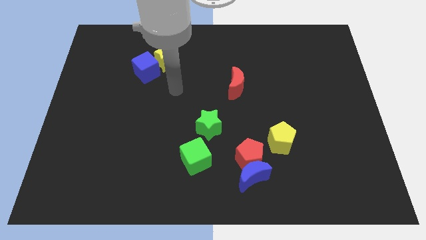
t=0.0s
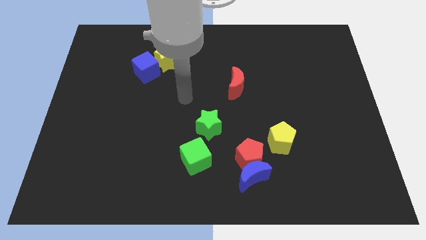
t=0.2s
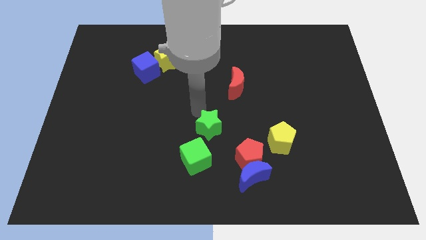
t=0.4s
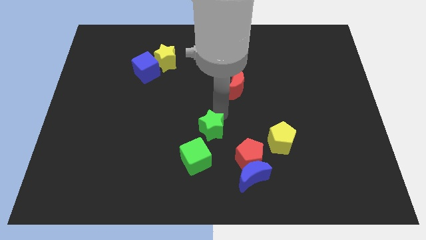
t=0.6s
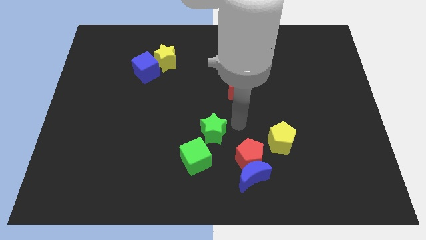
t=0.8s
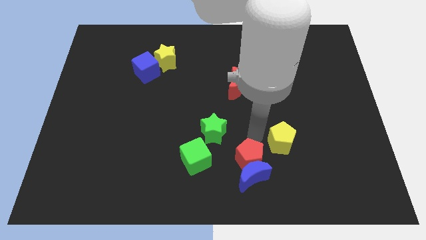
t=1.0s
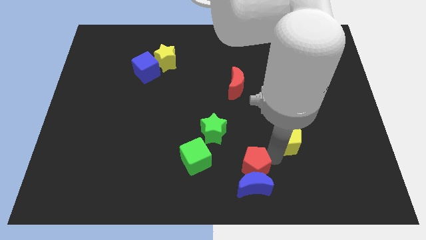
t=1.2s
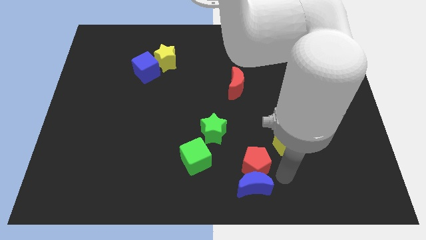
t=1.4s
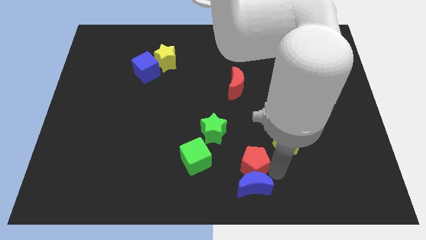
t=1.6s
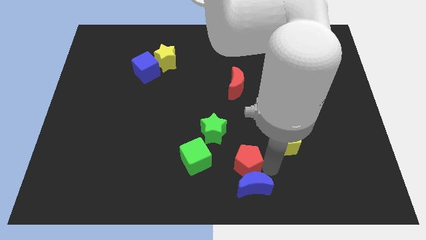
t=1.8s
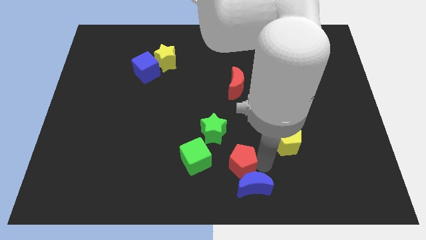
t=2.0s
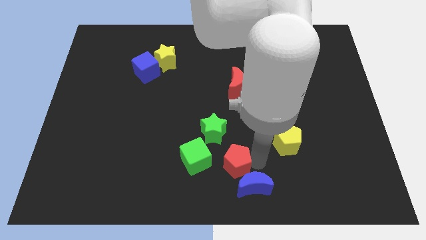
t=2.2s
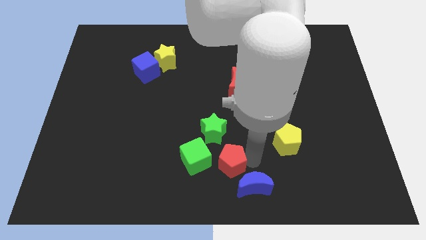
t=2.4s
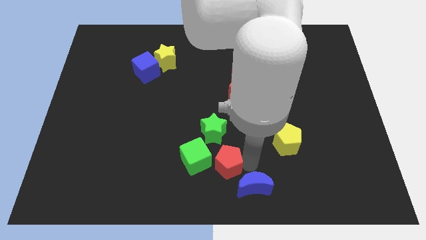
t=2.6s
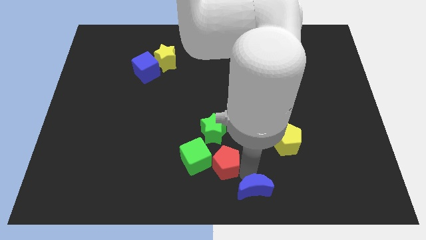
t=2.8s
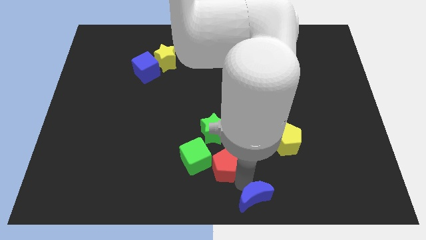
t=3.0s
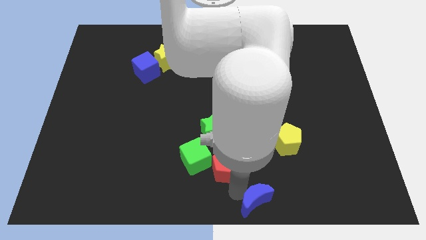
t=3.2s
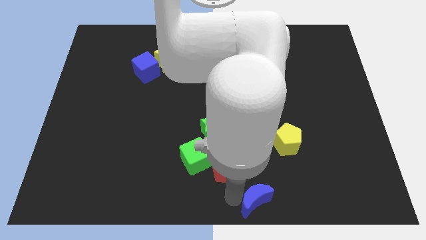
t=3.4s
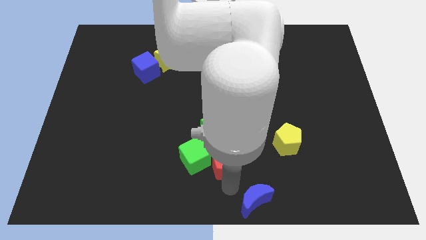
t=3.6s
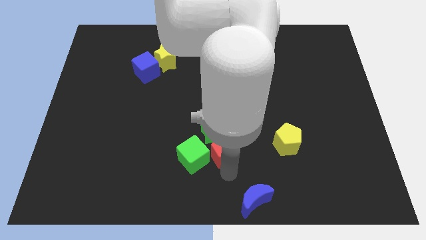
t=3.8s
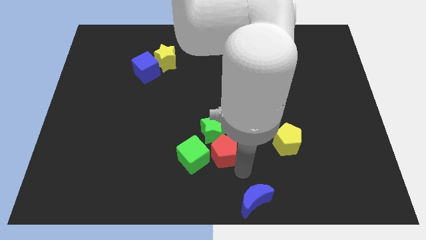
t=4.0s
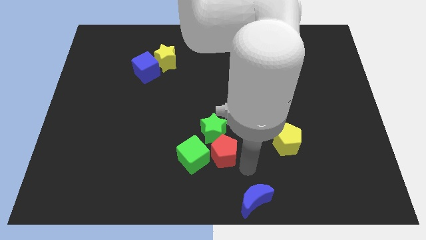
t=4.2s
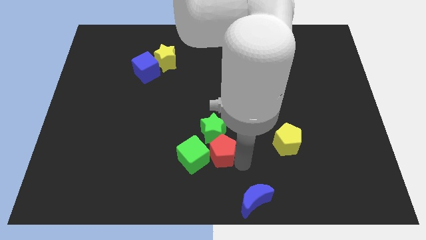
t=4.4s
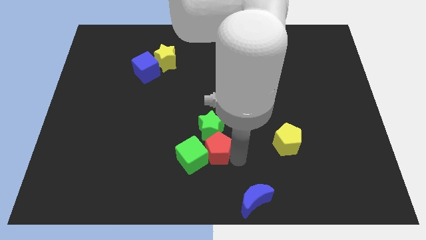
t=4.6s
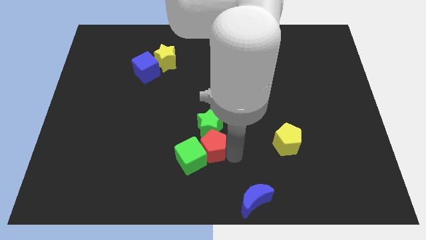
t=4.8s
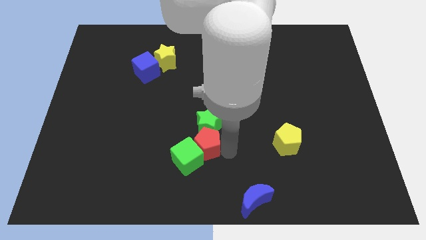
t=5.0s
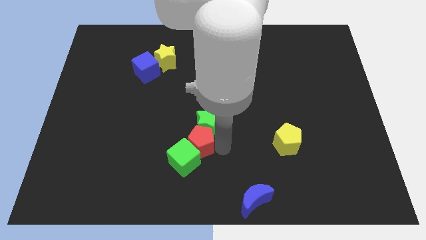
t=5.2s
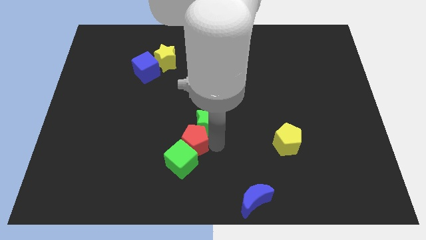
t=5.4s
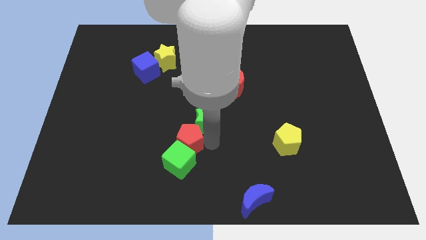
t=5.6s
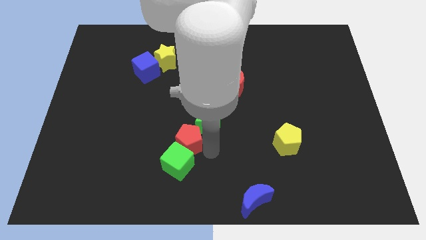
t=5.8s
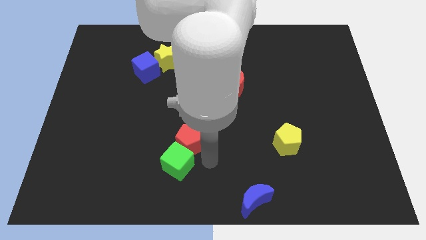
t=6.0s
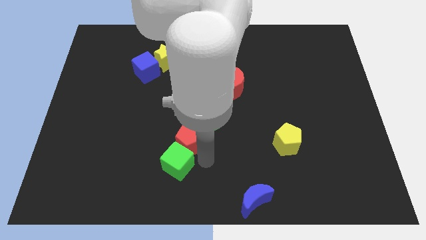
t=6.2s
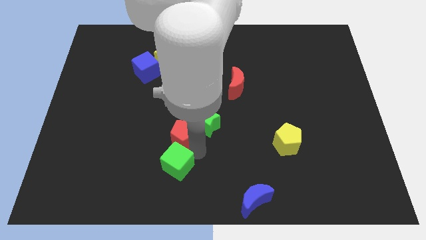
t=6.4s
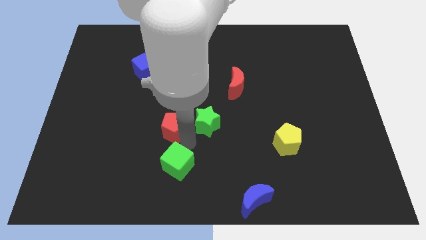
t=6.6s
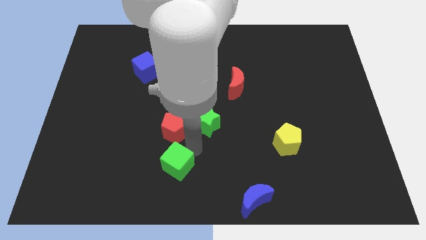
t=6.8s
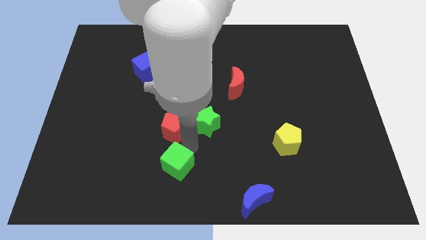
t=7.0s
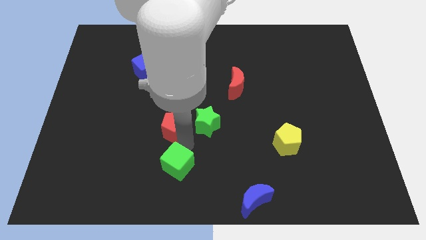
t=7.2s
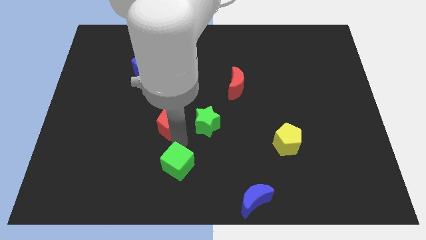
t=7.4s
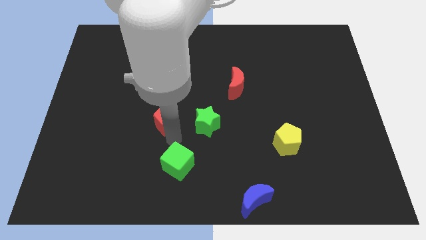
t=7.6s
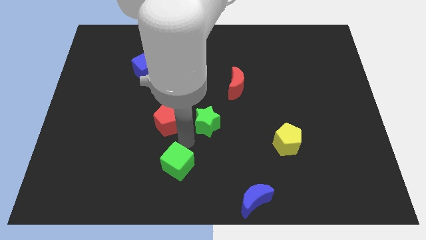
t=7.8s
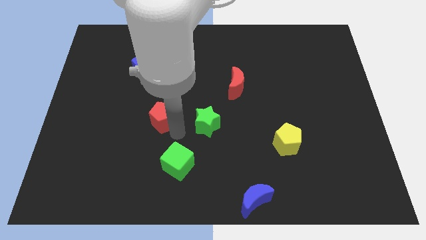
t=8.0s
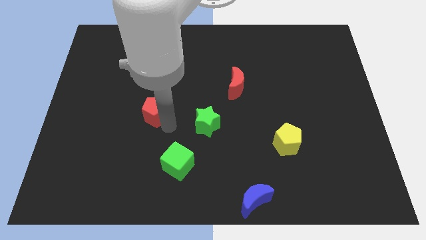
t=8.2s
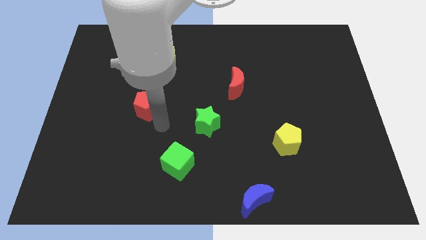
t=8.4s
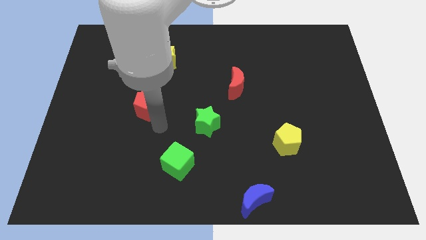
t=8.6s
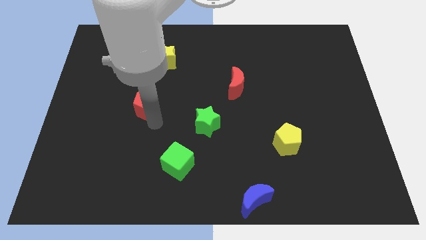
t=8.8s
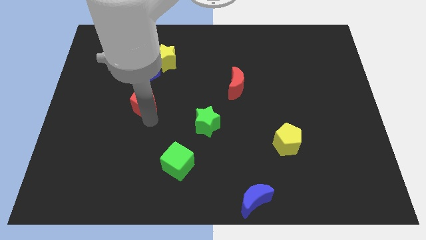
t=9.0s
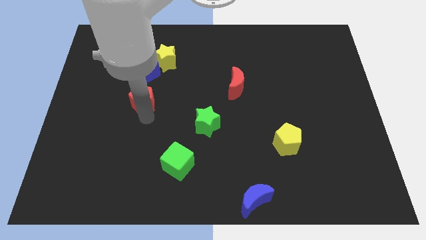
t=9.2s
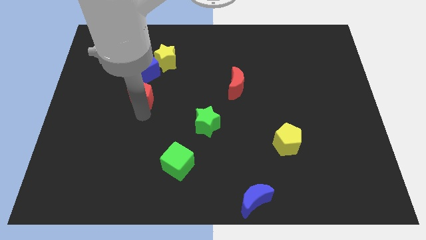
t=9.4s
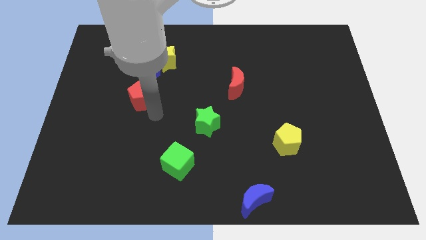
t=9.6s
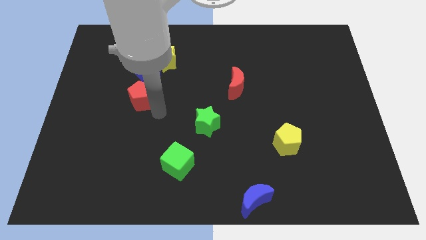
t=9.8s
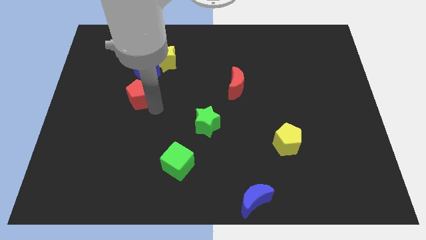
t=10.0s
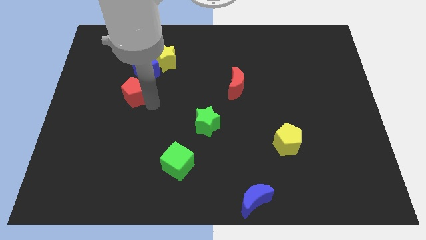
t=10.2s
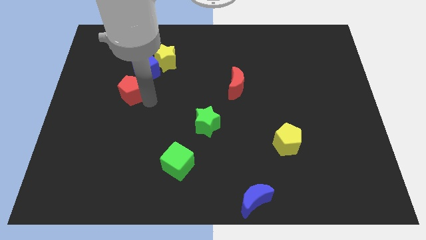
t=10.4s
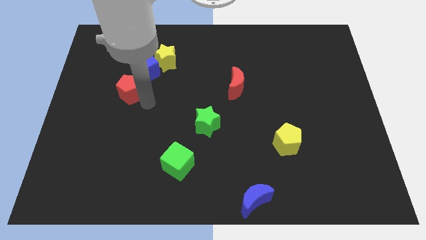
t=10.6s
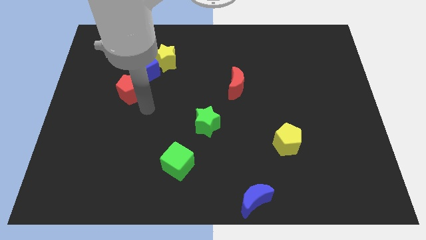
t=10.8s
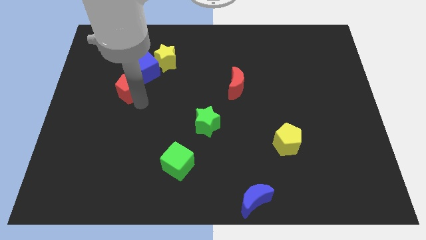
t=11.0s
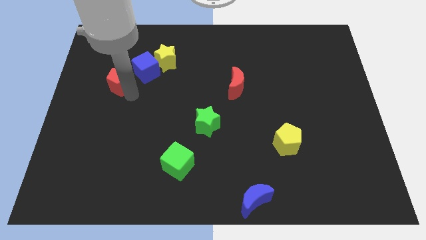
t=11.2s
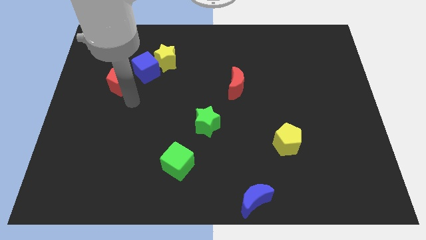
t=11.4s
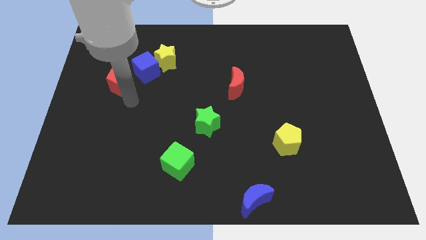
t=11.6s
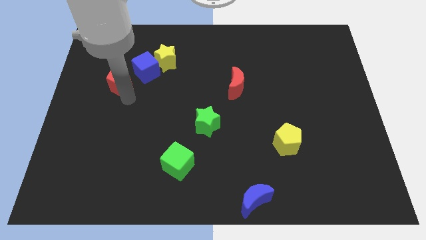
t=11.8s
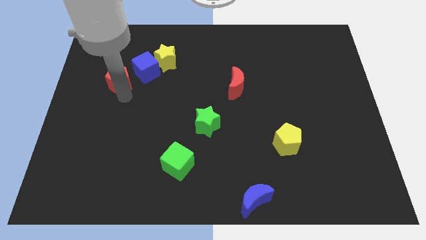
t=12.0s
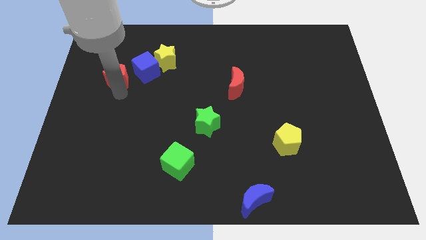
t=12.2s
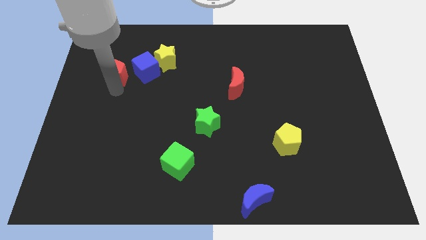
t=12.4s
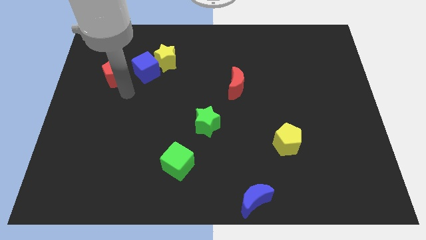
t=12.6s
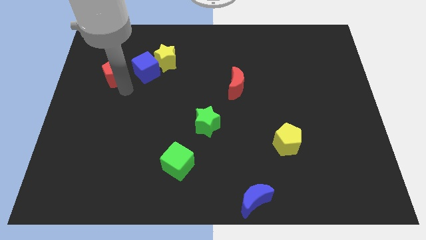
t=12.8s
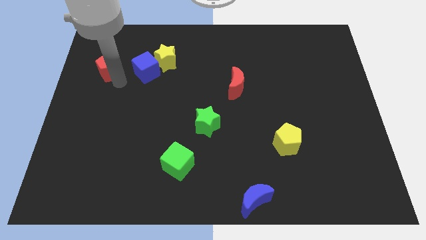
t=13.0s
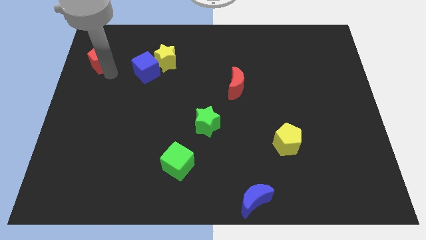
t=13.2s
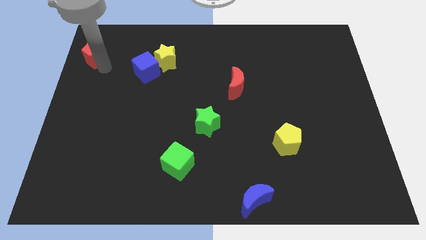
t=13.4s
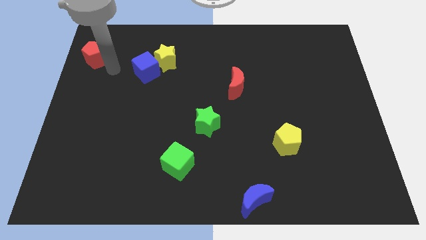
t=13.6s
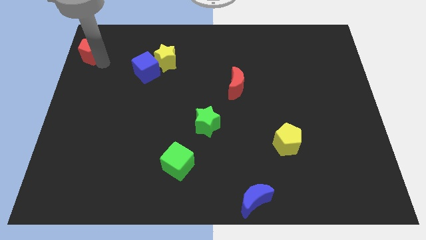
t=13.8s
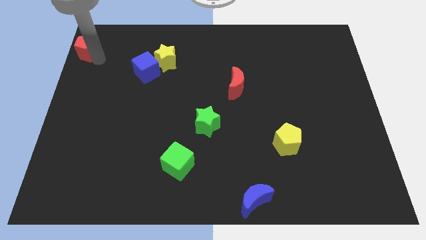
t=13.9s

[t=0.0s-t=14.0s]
move the red pentagon to the top left corner
